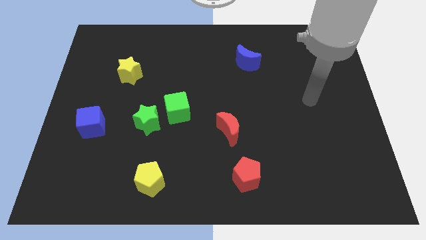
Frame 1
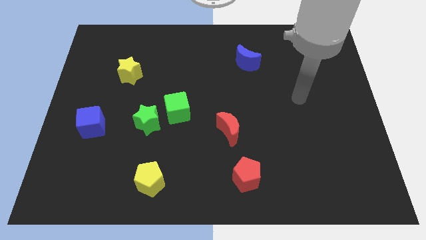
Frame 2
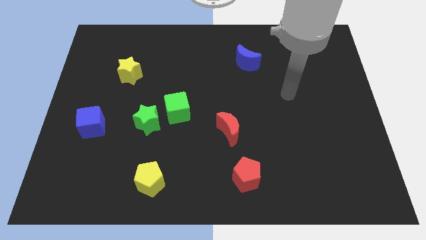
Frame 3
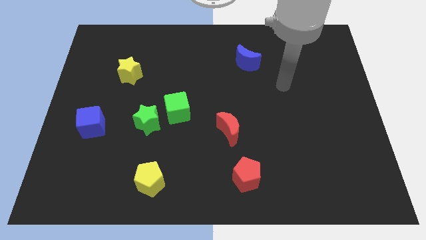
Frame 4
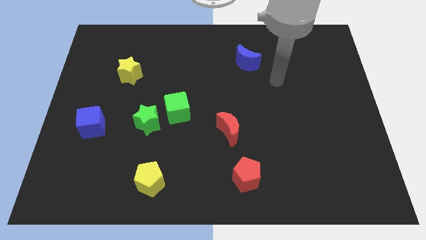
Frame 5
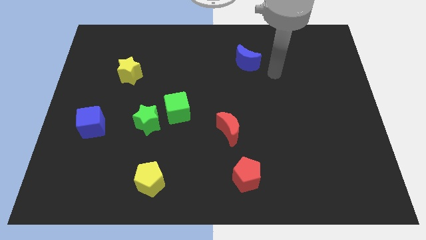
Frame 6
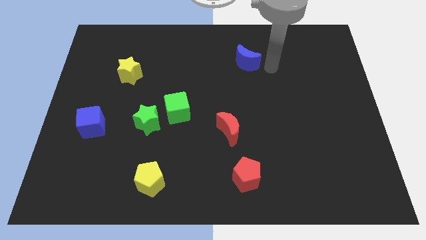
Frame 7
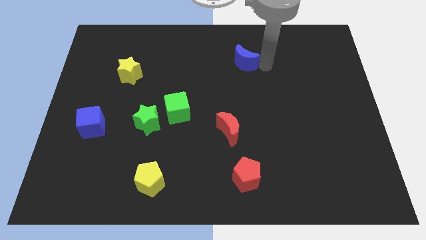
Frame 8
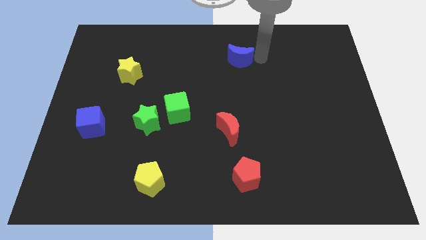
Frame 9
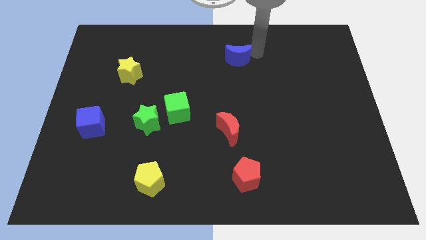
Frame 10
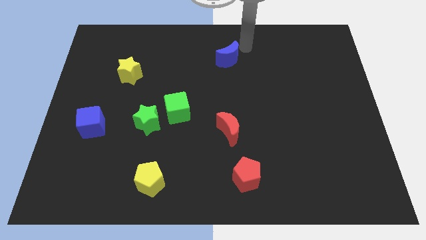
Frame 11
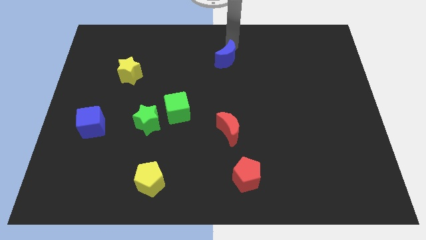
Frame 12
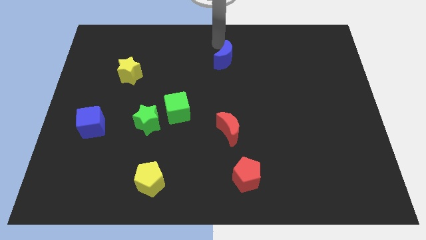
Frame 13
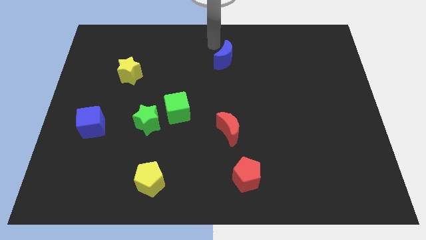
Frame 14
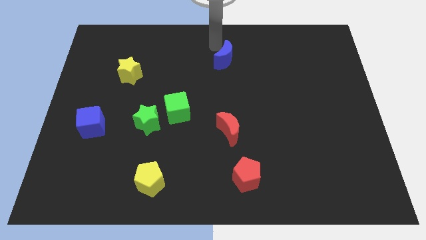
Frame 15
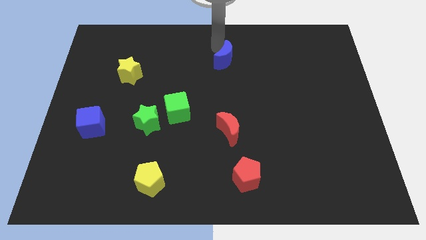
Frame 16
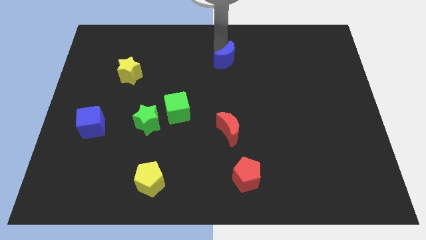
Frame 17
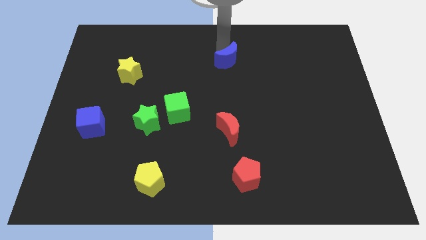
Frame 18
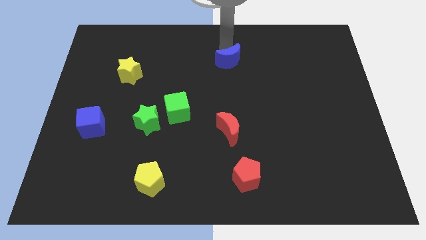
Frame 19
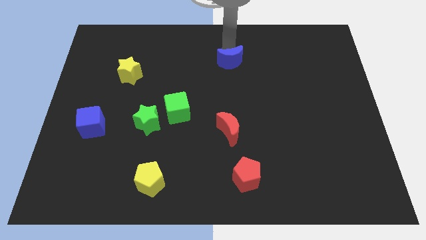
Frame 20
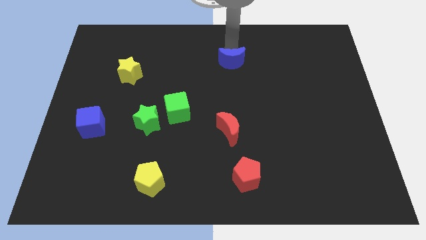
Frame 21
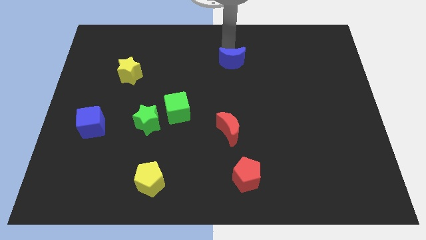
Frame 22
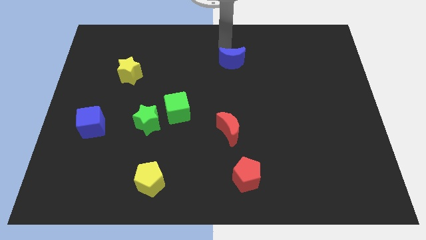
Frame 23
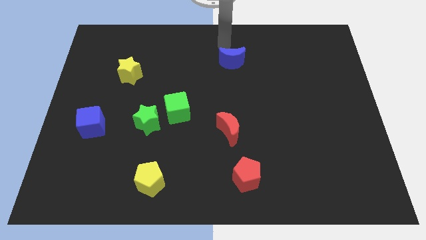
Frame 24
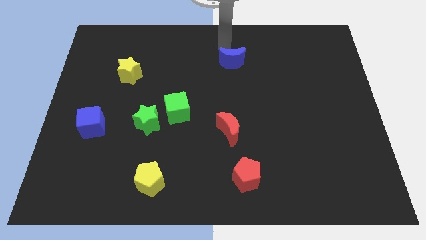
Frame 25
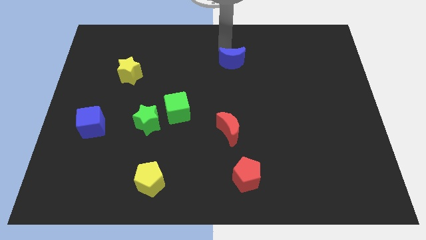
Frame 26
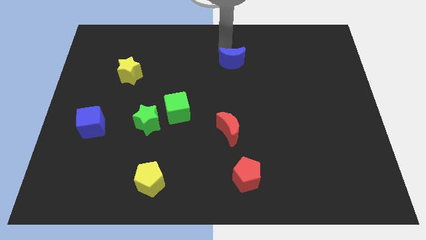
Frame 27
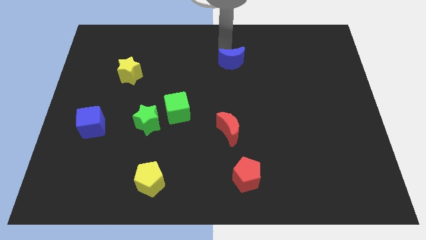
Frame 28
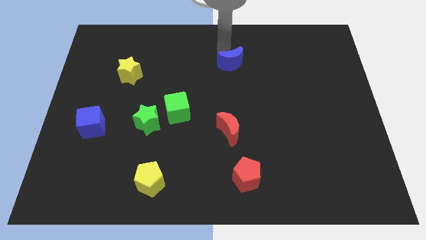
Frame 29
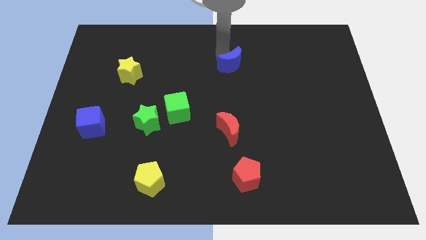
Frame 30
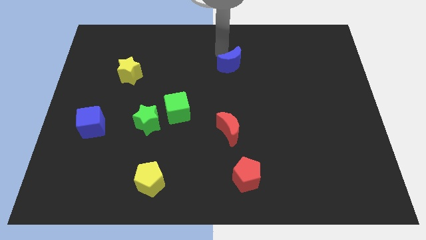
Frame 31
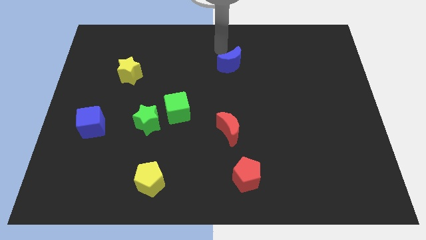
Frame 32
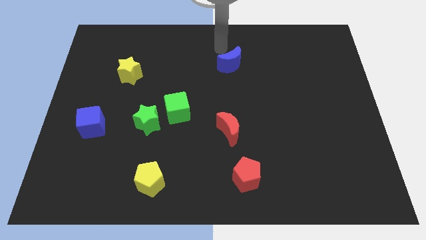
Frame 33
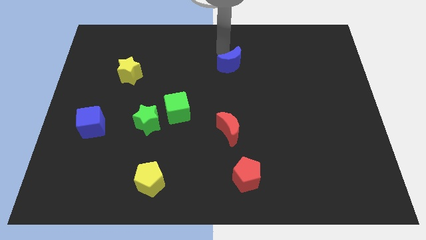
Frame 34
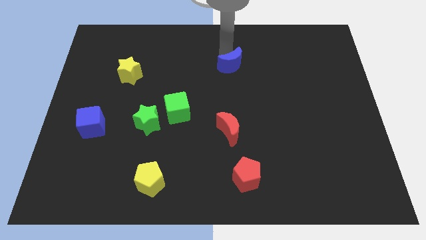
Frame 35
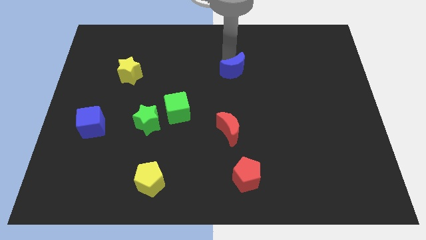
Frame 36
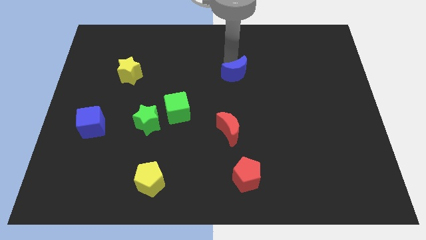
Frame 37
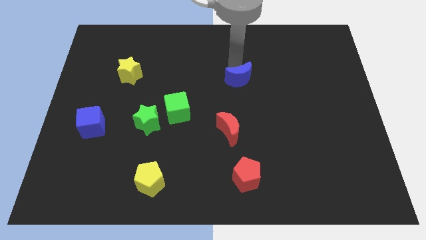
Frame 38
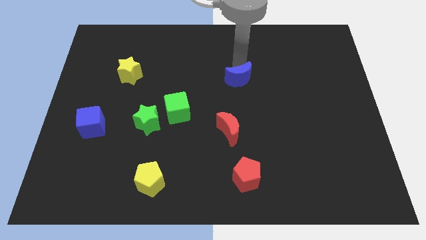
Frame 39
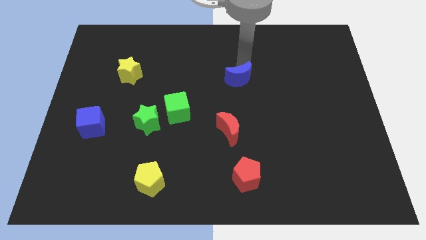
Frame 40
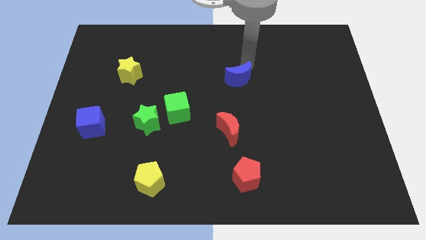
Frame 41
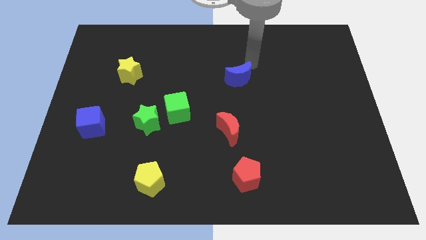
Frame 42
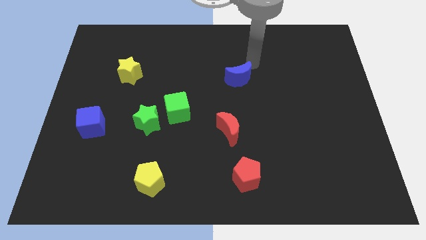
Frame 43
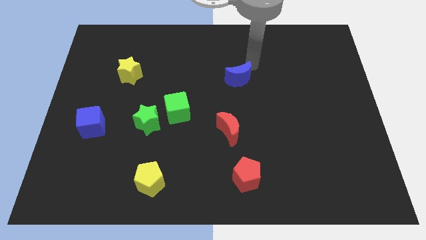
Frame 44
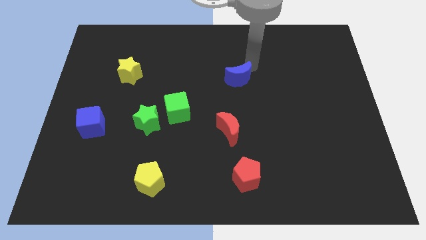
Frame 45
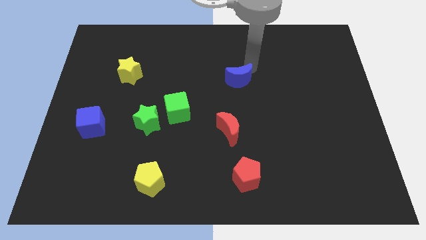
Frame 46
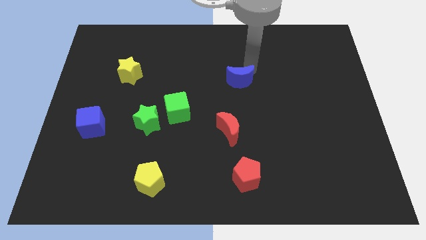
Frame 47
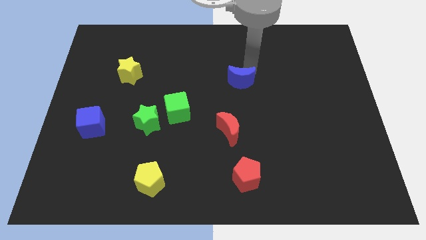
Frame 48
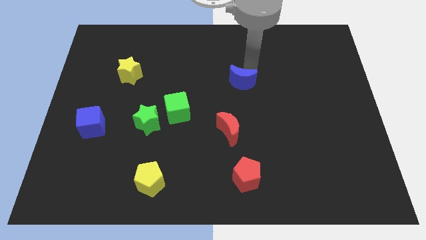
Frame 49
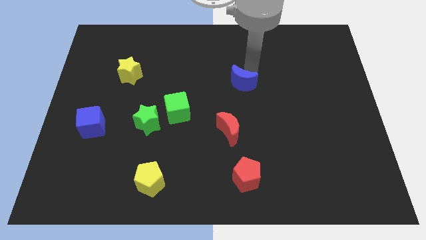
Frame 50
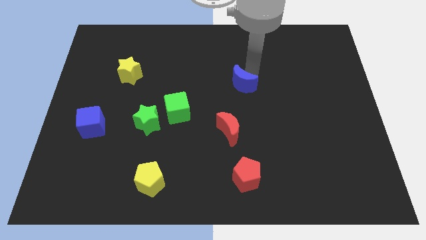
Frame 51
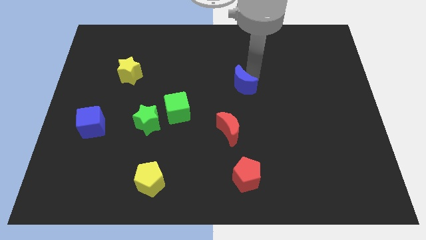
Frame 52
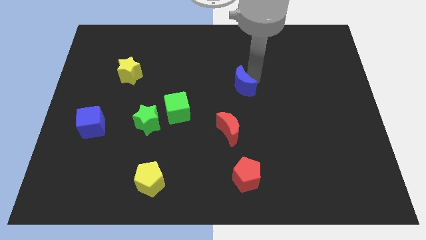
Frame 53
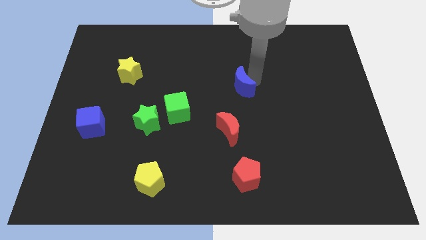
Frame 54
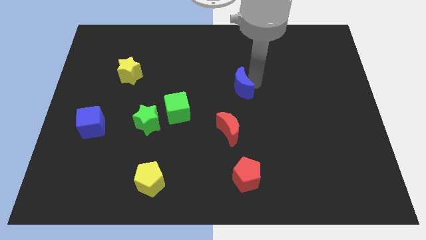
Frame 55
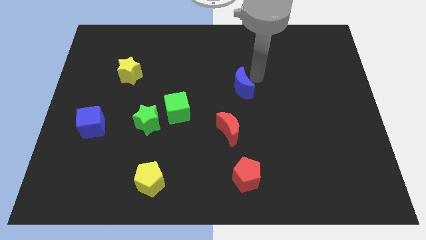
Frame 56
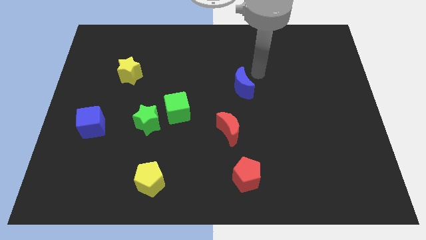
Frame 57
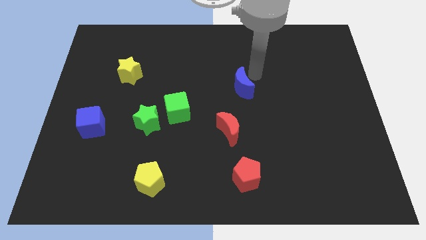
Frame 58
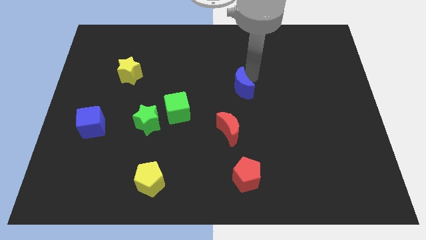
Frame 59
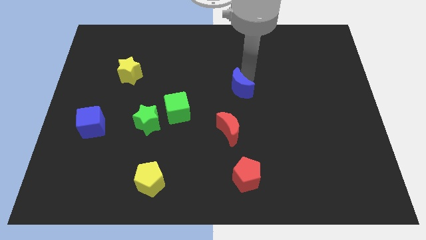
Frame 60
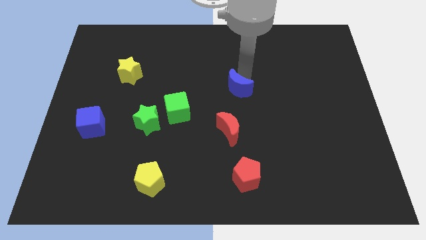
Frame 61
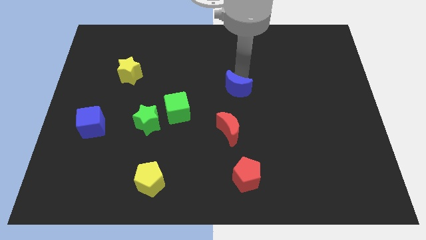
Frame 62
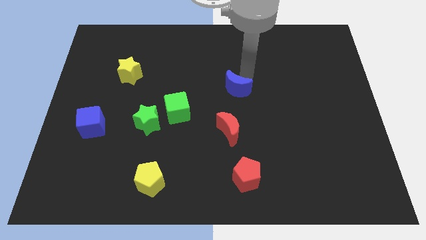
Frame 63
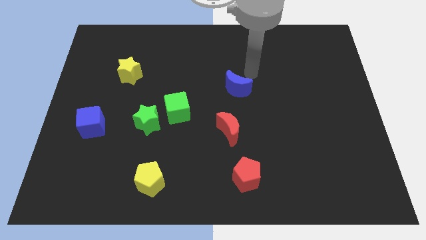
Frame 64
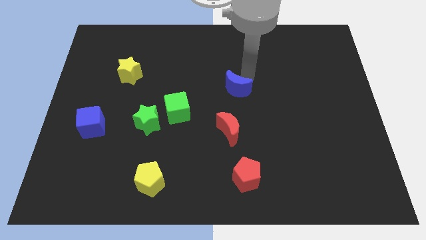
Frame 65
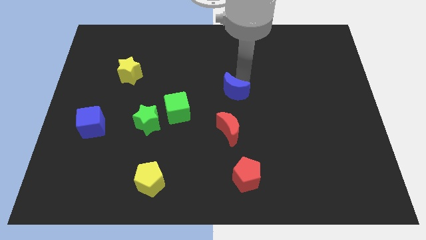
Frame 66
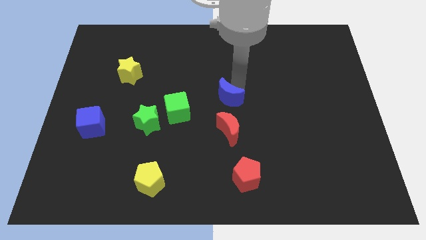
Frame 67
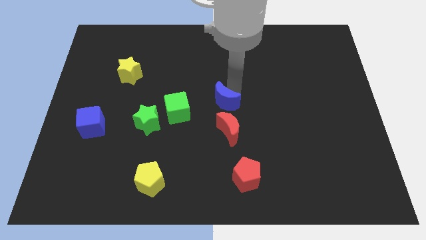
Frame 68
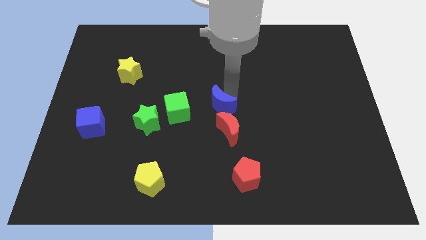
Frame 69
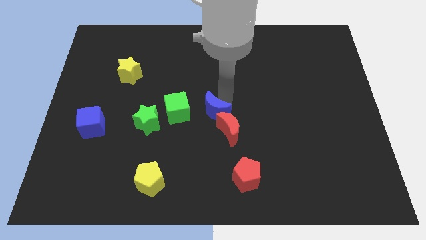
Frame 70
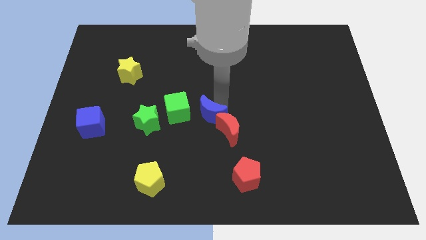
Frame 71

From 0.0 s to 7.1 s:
put the blue moon to the bottom right of the green cube
